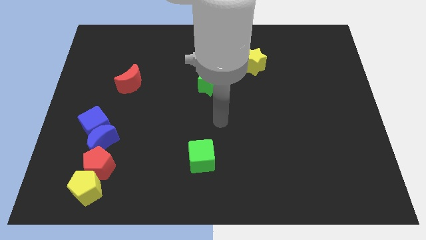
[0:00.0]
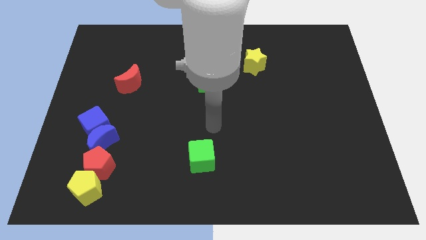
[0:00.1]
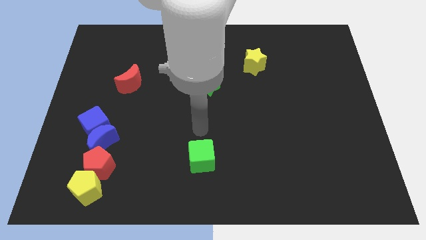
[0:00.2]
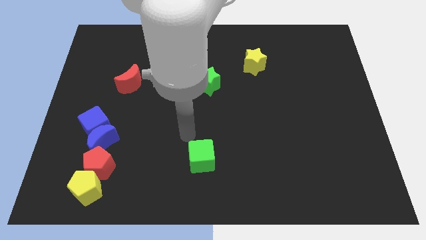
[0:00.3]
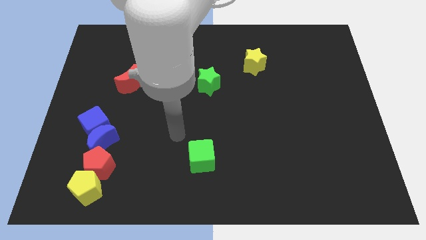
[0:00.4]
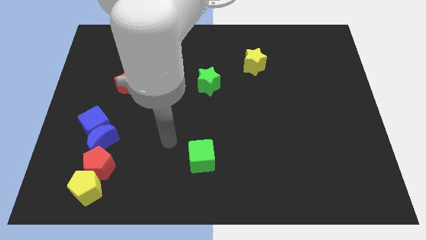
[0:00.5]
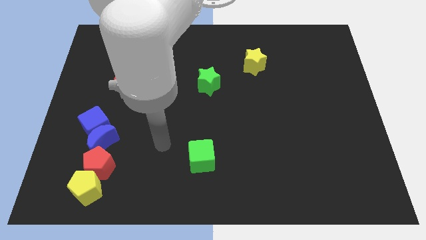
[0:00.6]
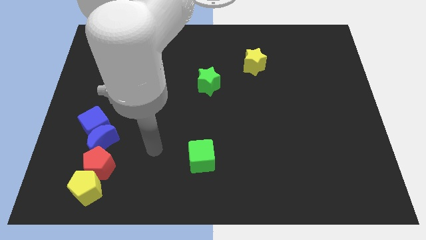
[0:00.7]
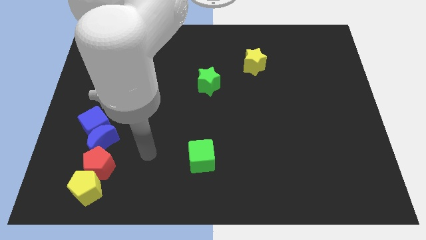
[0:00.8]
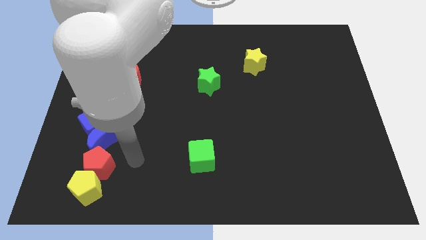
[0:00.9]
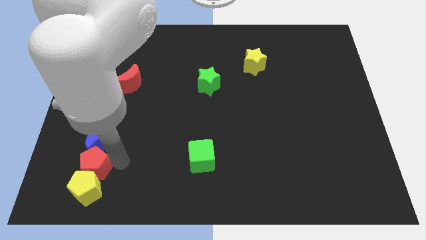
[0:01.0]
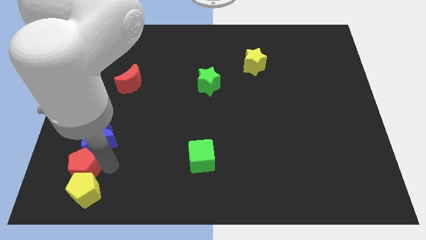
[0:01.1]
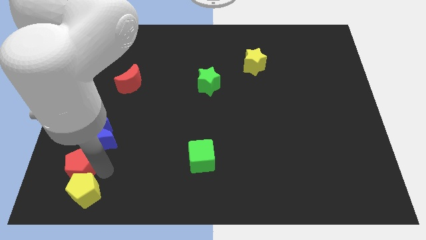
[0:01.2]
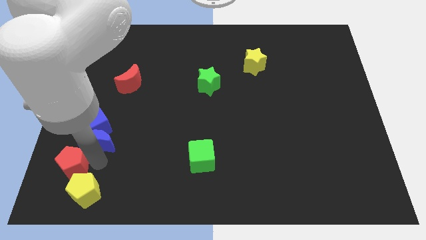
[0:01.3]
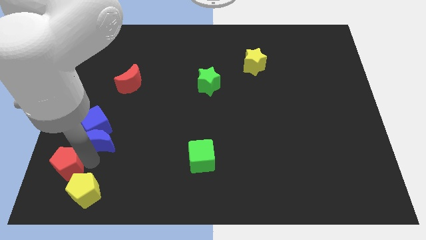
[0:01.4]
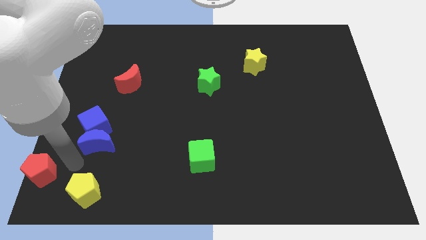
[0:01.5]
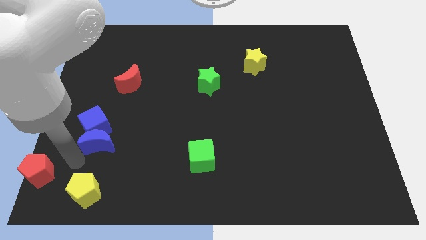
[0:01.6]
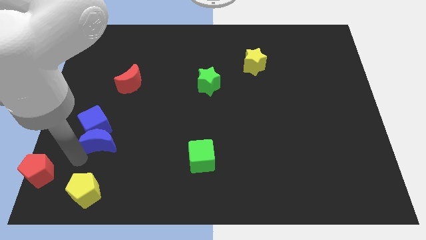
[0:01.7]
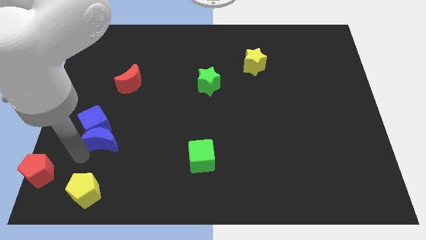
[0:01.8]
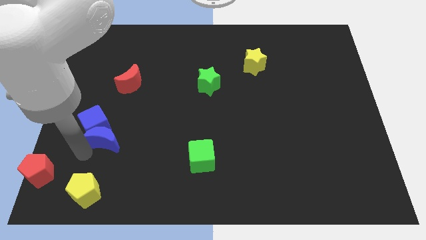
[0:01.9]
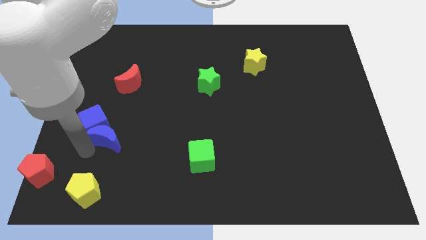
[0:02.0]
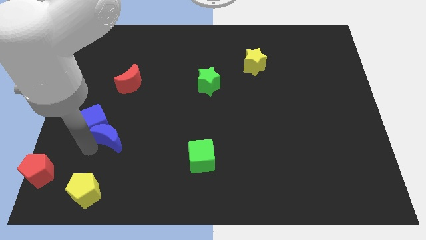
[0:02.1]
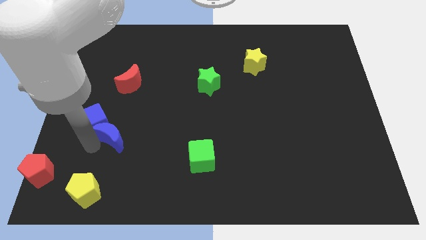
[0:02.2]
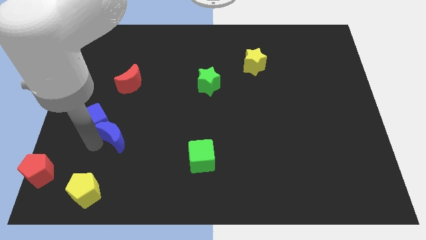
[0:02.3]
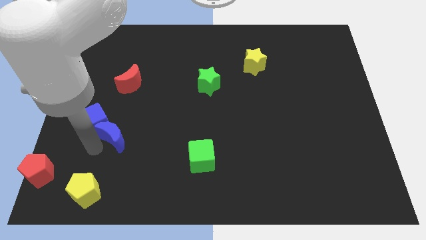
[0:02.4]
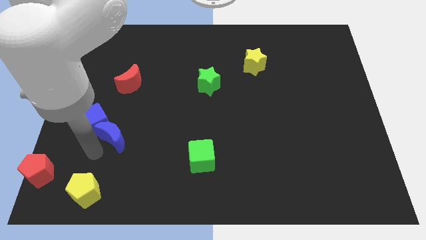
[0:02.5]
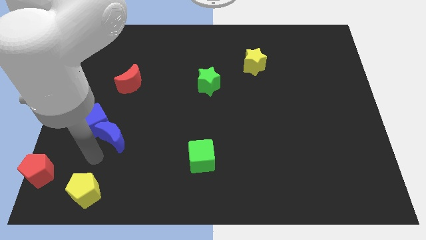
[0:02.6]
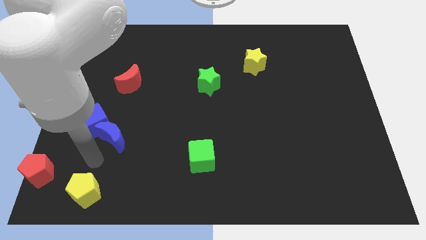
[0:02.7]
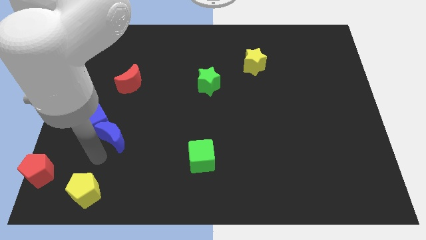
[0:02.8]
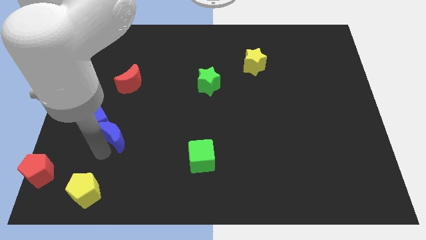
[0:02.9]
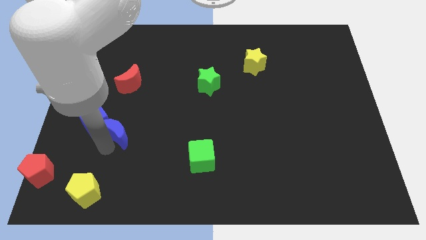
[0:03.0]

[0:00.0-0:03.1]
separate the blue moon from the blue cube and red pentagon

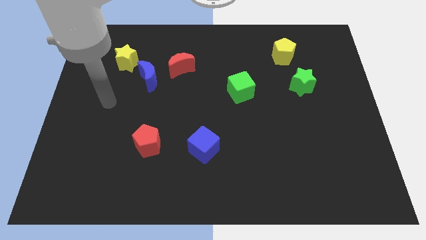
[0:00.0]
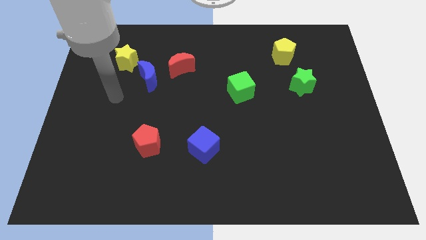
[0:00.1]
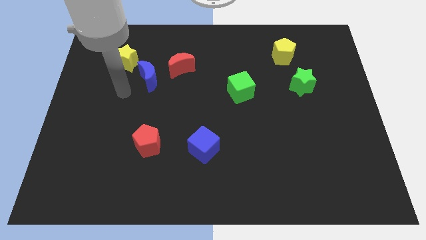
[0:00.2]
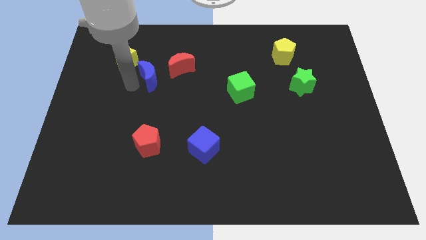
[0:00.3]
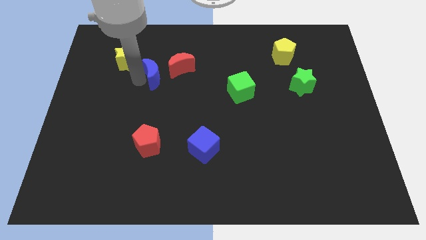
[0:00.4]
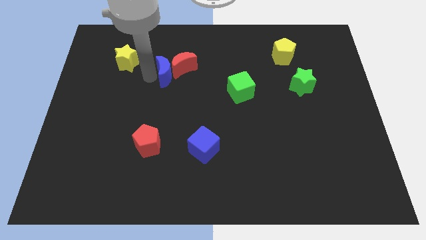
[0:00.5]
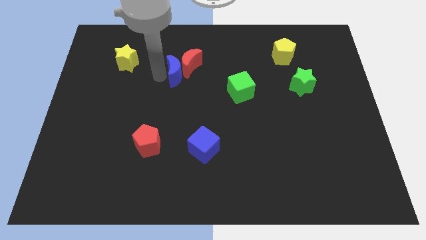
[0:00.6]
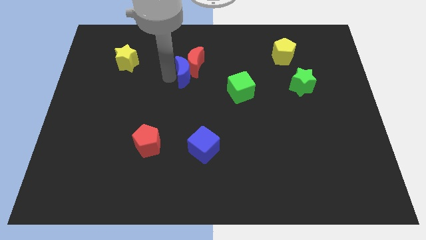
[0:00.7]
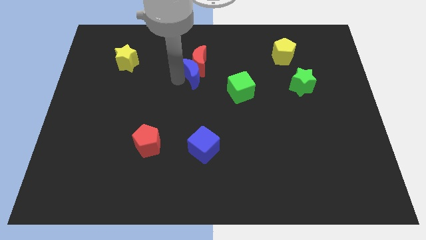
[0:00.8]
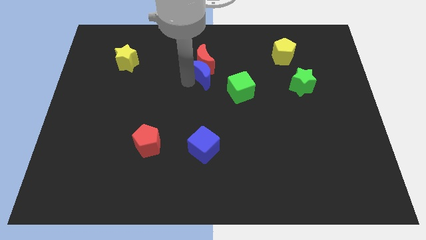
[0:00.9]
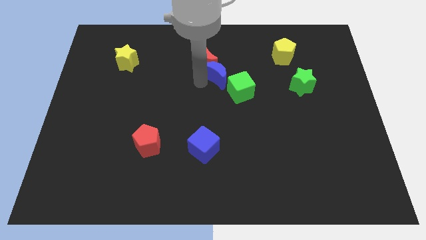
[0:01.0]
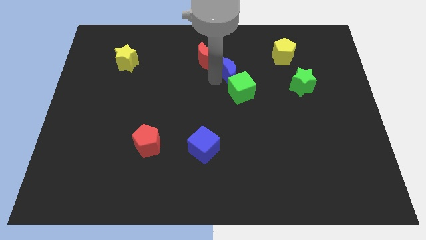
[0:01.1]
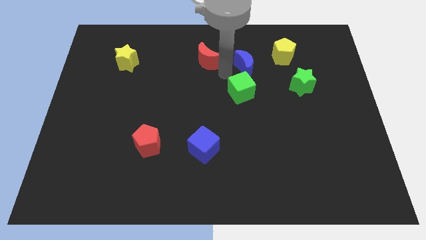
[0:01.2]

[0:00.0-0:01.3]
move the red moon away from the blue moon

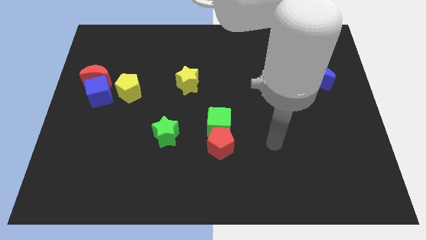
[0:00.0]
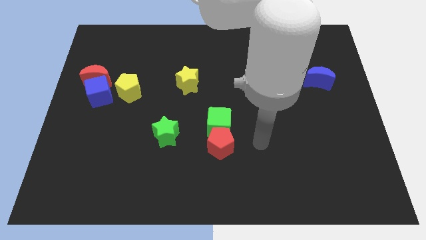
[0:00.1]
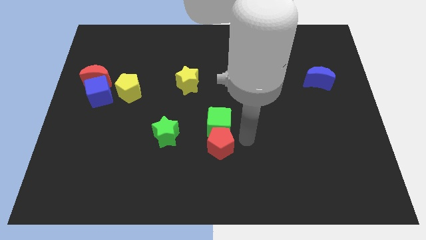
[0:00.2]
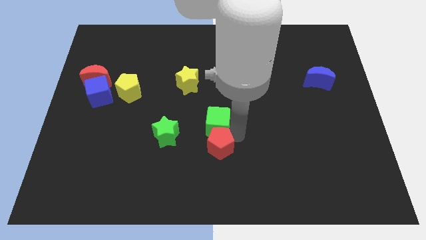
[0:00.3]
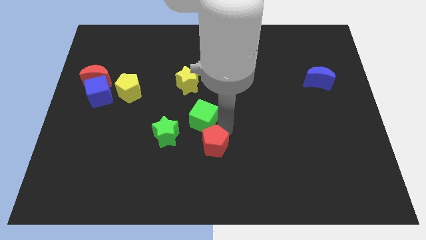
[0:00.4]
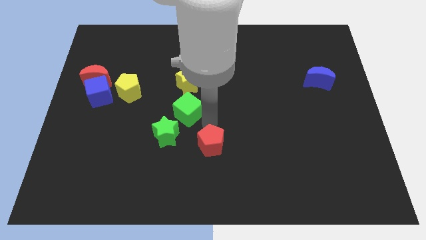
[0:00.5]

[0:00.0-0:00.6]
separate the red pentagon from the green cube

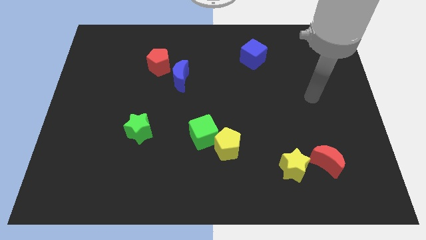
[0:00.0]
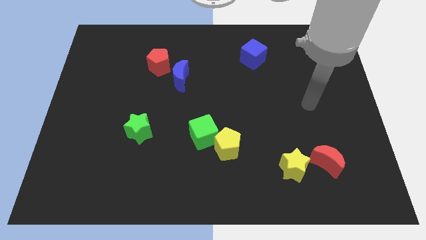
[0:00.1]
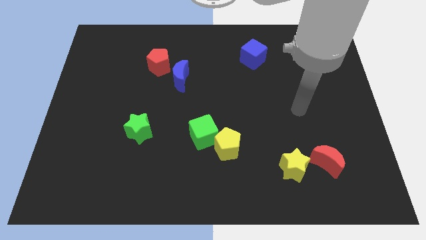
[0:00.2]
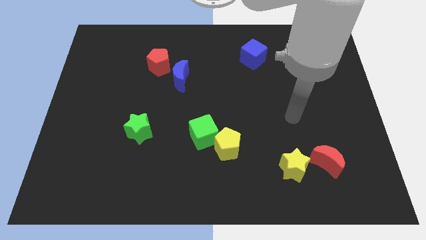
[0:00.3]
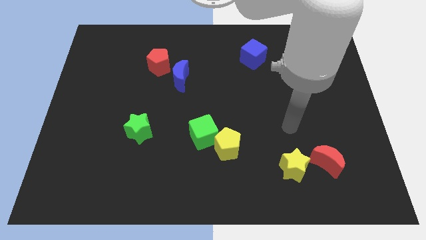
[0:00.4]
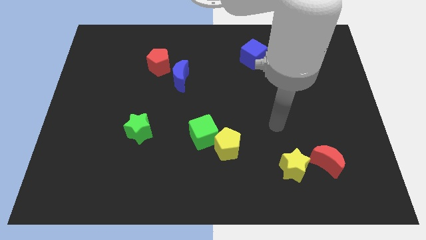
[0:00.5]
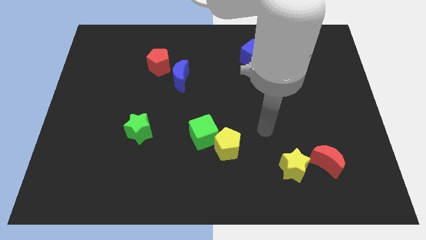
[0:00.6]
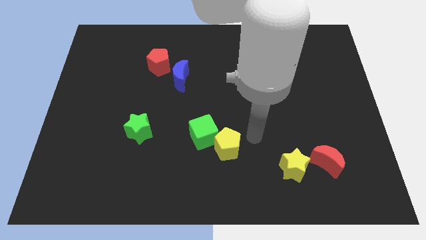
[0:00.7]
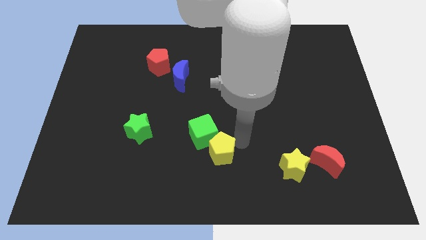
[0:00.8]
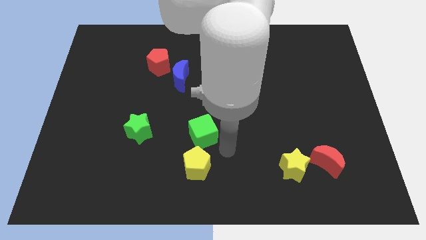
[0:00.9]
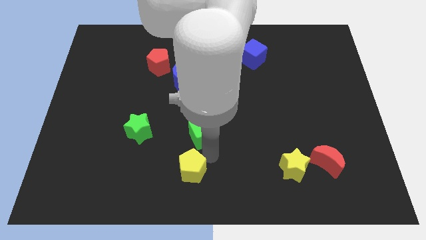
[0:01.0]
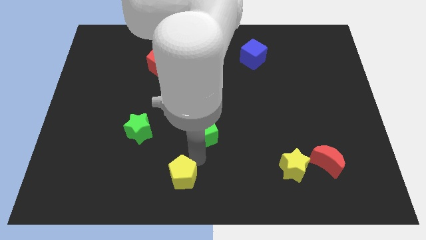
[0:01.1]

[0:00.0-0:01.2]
separate the green cube from the yellow pentagon

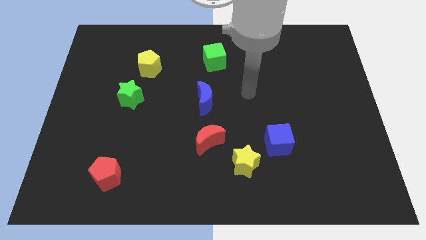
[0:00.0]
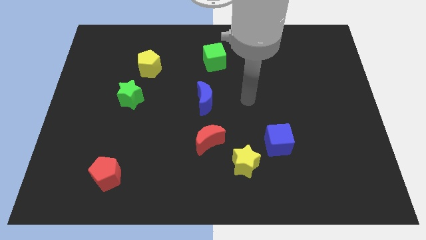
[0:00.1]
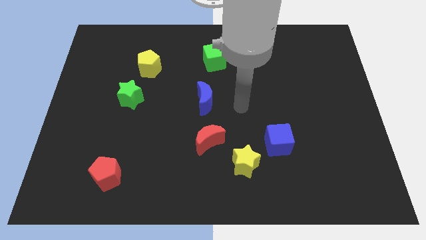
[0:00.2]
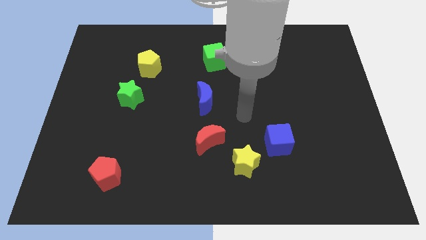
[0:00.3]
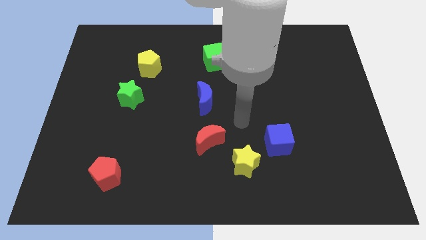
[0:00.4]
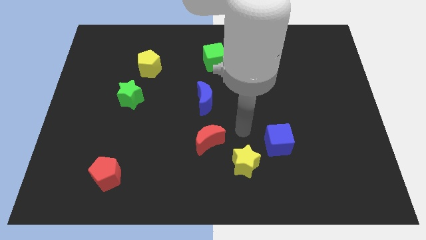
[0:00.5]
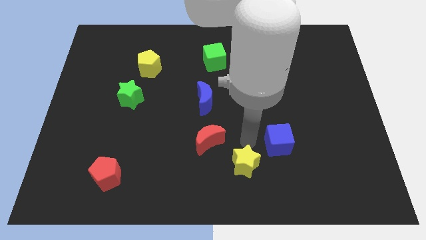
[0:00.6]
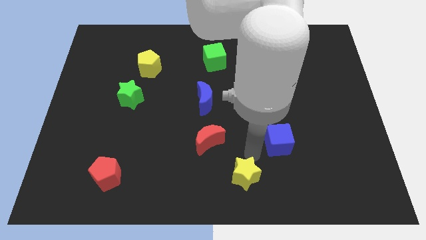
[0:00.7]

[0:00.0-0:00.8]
separate the blue cube from the yellow star

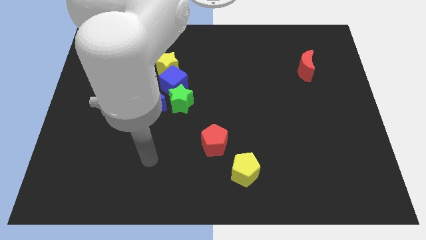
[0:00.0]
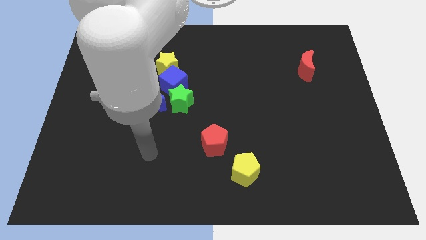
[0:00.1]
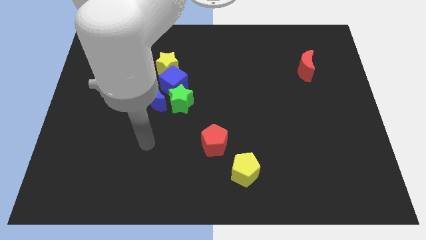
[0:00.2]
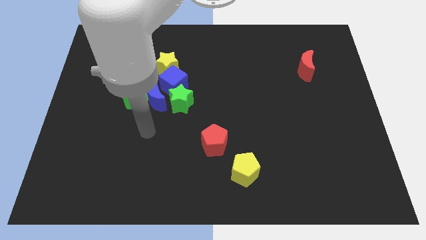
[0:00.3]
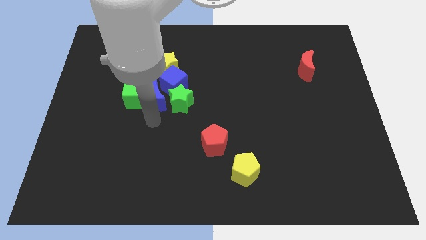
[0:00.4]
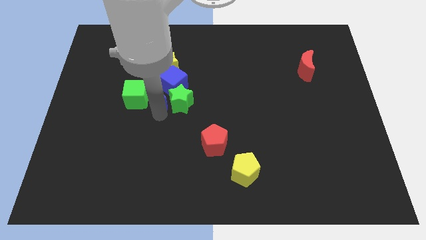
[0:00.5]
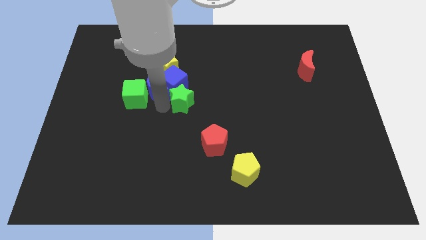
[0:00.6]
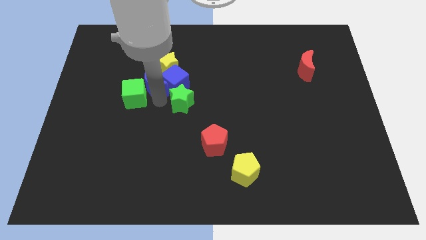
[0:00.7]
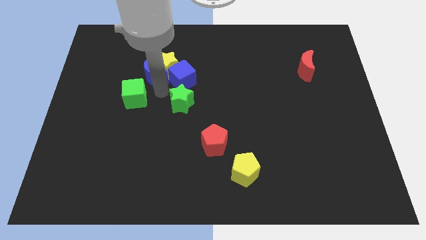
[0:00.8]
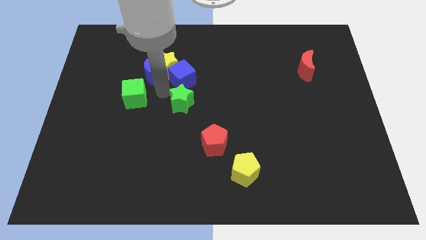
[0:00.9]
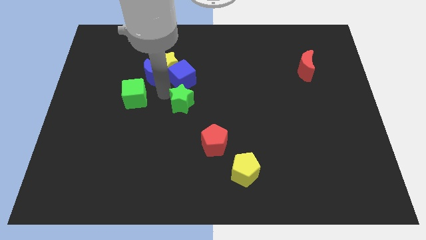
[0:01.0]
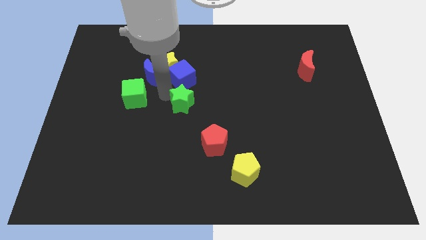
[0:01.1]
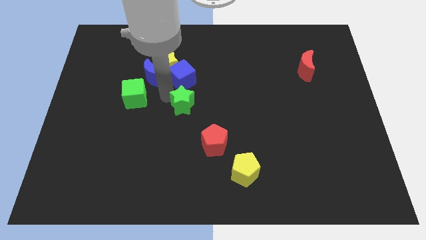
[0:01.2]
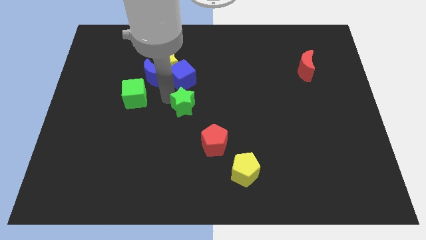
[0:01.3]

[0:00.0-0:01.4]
pull the green star apart from the blue cube and blue moon

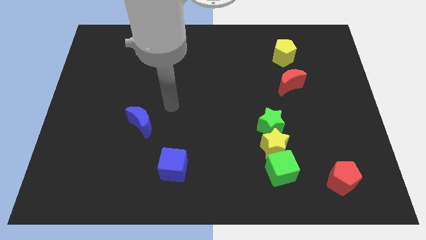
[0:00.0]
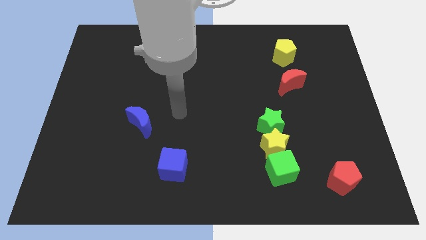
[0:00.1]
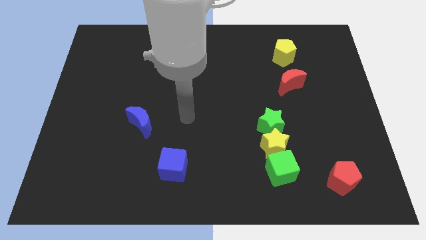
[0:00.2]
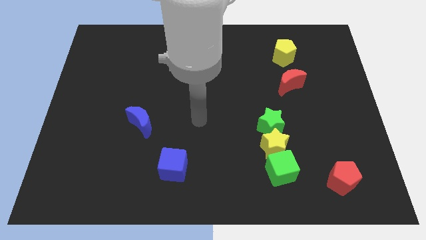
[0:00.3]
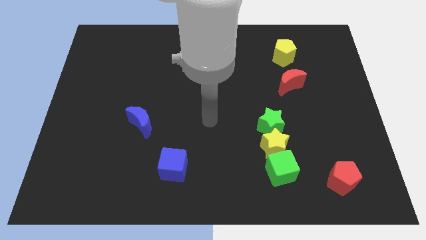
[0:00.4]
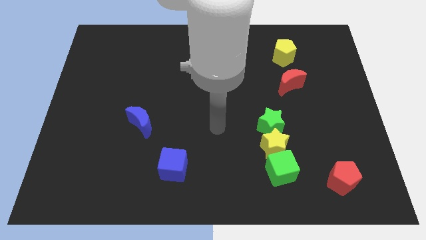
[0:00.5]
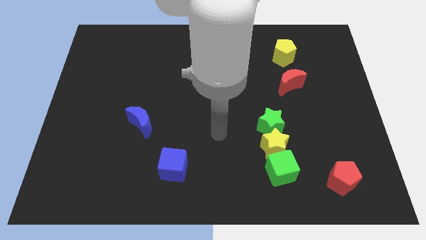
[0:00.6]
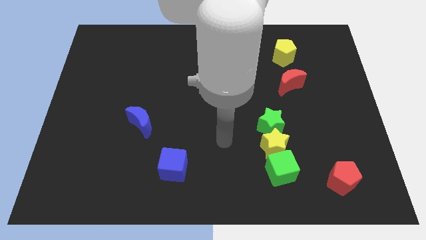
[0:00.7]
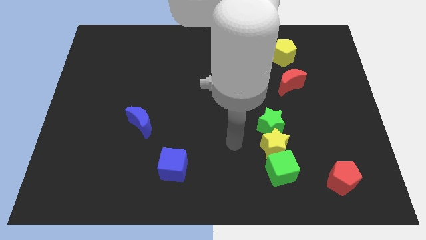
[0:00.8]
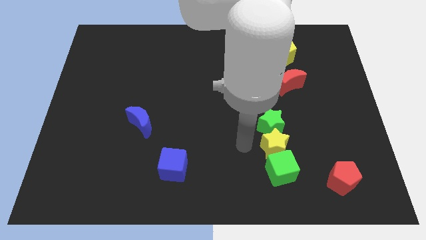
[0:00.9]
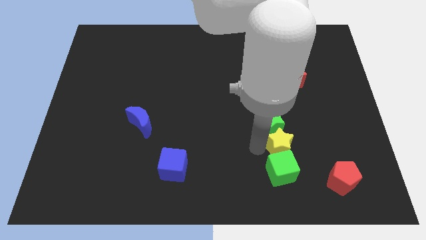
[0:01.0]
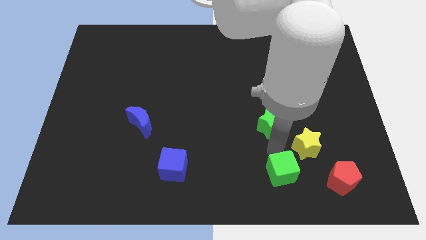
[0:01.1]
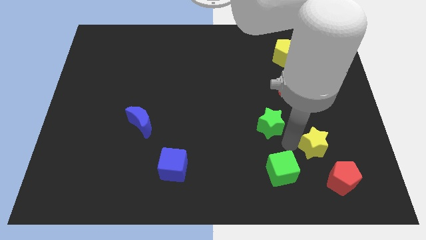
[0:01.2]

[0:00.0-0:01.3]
separate the green star from the yellow star
